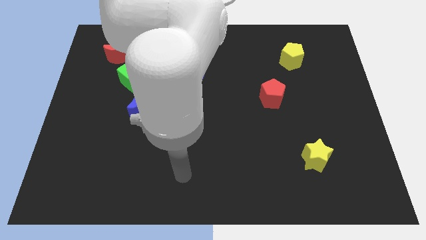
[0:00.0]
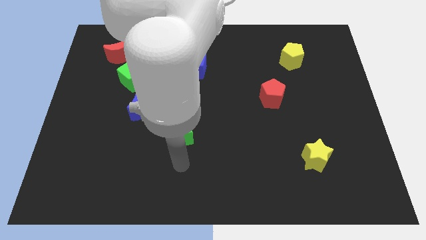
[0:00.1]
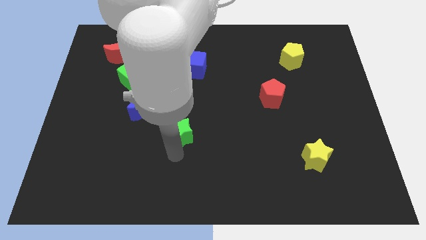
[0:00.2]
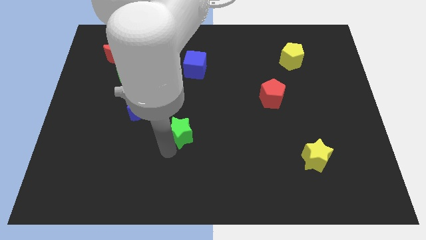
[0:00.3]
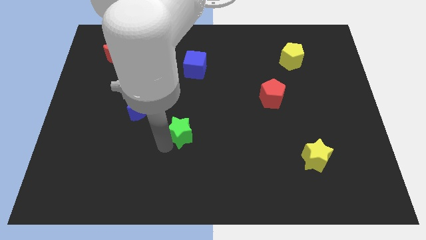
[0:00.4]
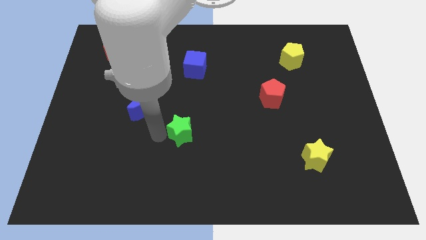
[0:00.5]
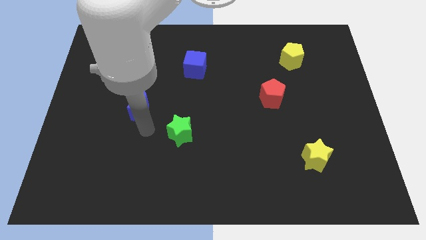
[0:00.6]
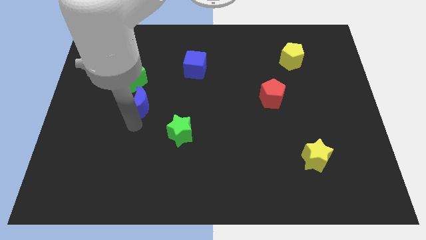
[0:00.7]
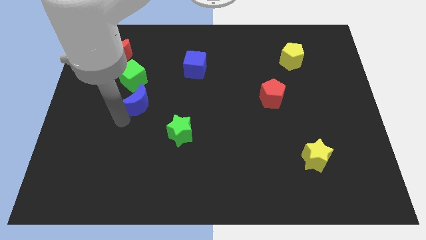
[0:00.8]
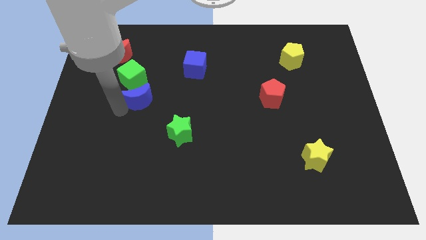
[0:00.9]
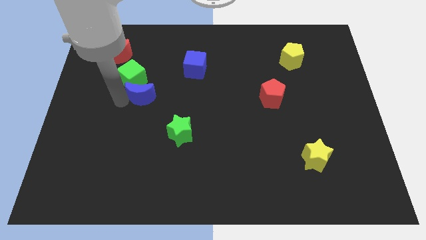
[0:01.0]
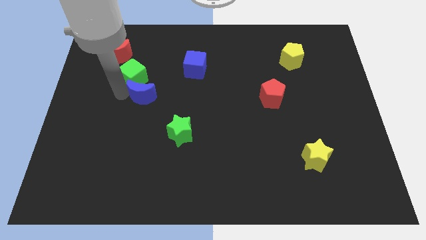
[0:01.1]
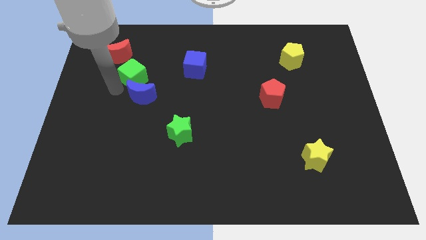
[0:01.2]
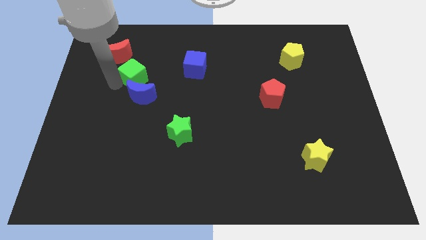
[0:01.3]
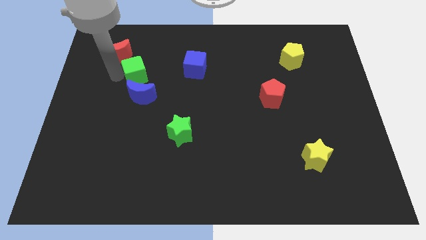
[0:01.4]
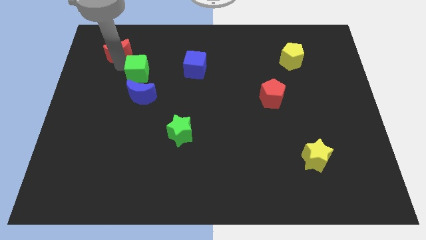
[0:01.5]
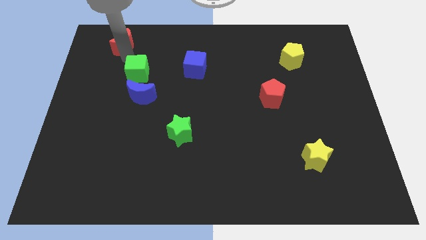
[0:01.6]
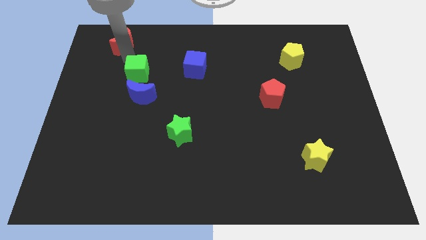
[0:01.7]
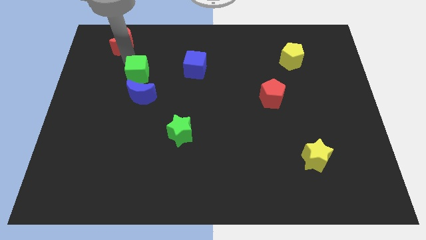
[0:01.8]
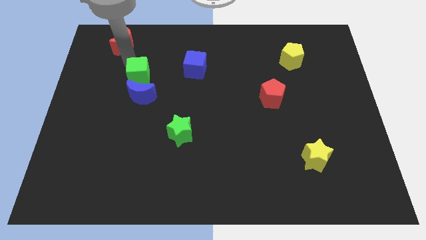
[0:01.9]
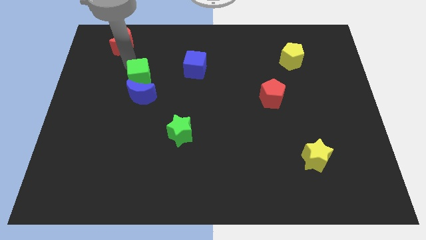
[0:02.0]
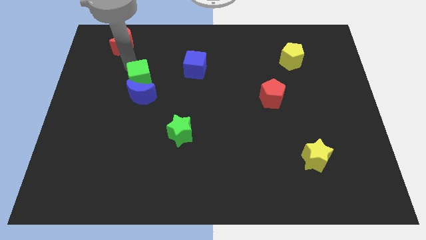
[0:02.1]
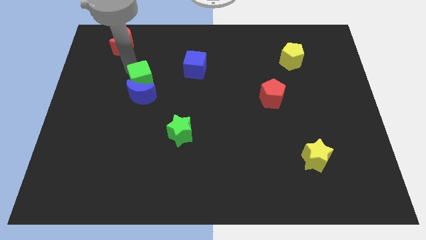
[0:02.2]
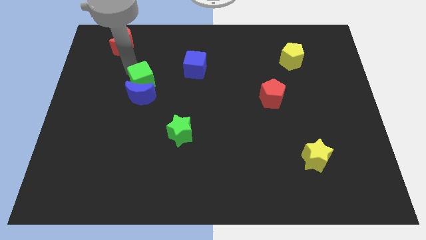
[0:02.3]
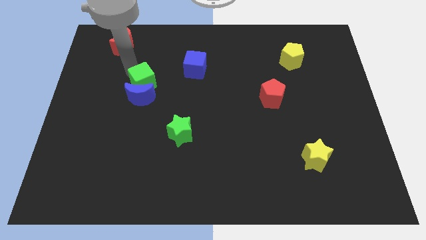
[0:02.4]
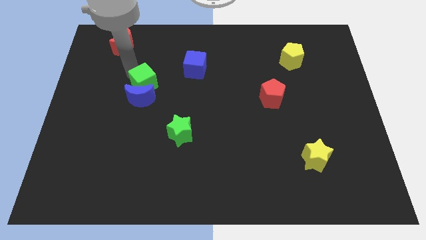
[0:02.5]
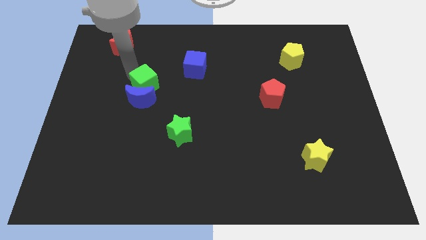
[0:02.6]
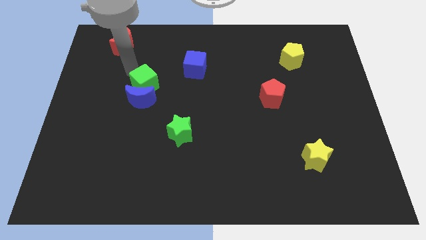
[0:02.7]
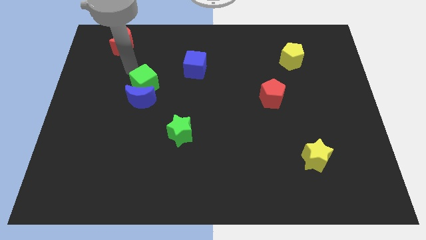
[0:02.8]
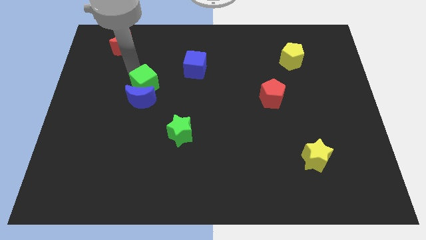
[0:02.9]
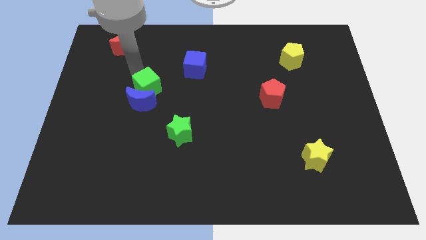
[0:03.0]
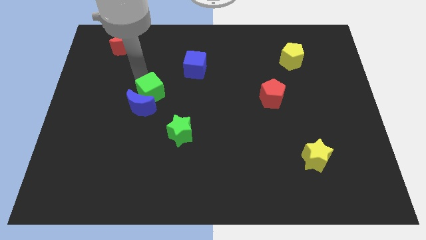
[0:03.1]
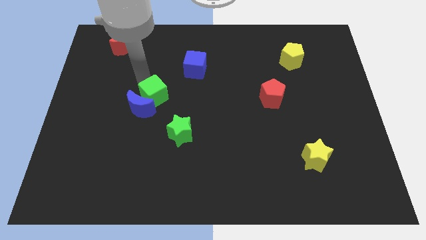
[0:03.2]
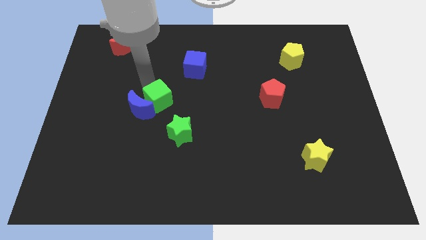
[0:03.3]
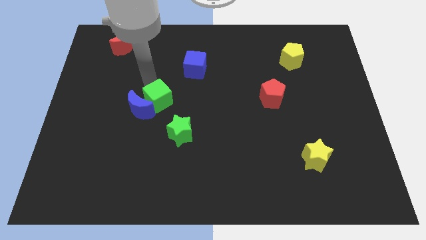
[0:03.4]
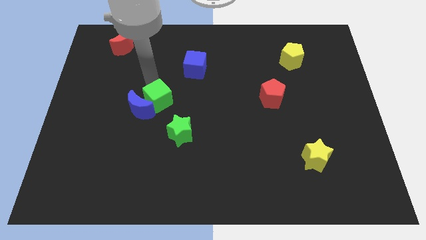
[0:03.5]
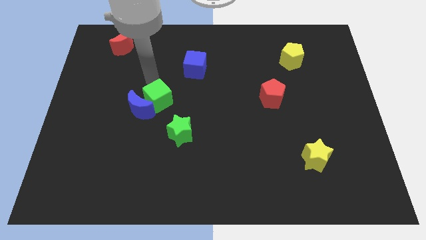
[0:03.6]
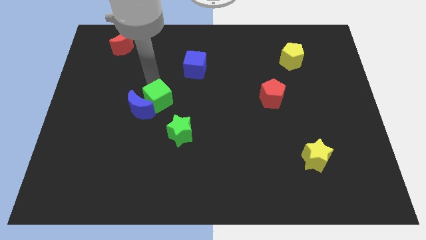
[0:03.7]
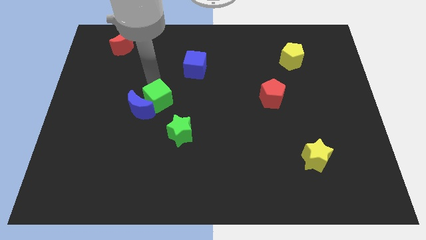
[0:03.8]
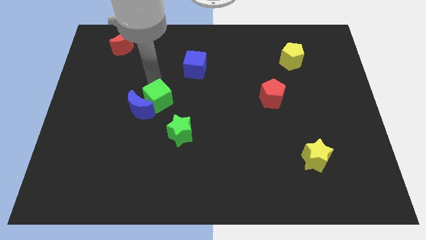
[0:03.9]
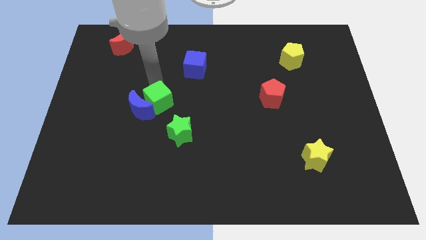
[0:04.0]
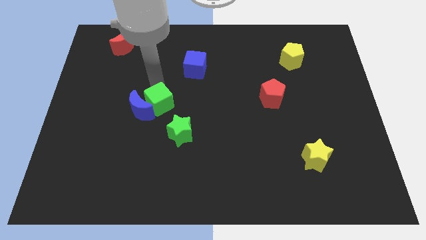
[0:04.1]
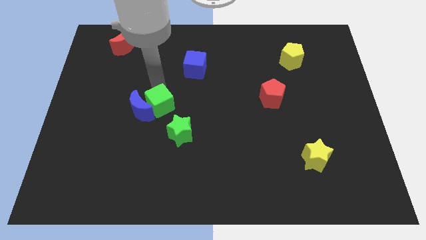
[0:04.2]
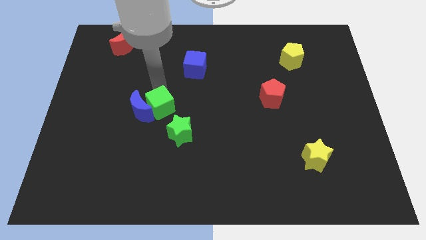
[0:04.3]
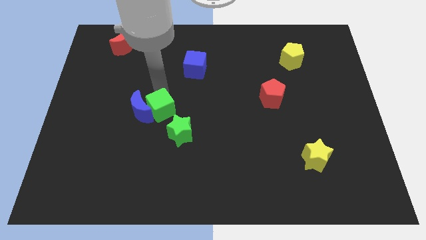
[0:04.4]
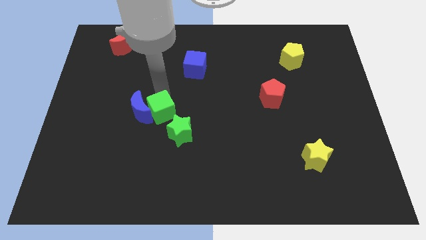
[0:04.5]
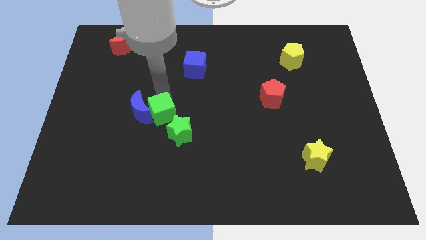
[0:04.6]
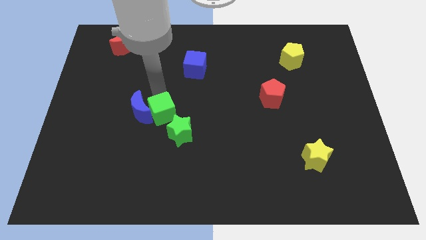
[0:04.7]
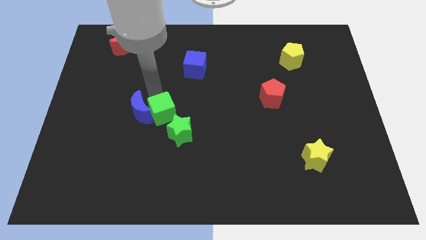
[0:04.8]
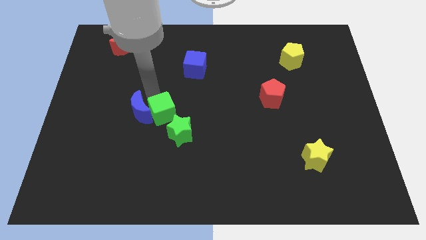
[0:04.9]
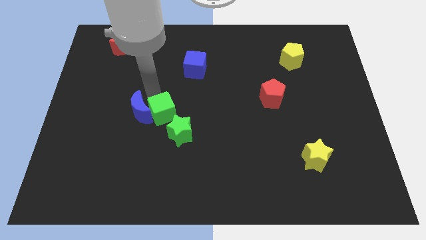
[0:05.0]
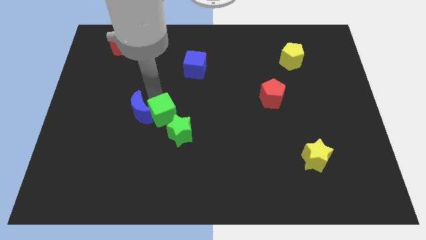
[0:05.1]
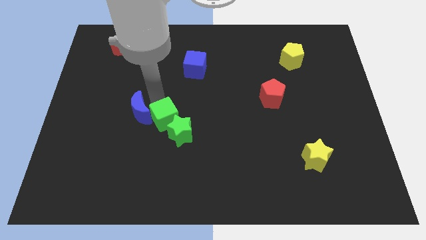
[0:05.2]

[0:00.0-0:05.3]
move the green cube close to the green star

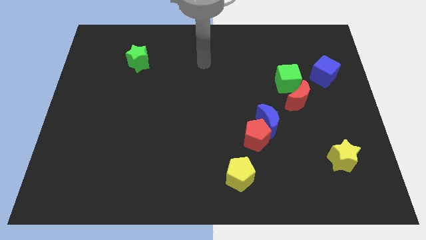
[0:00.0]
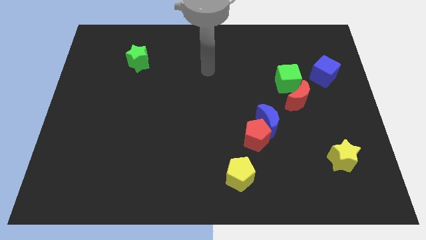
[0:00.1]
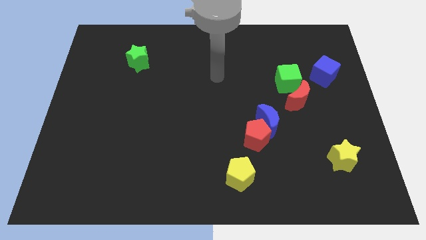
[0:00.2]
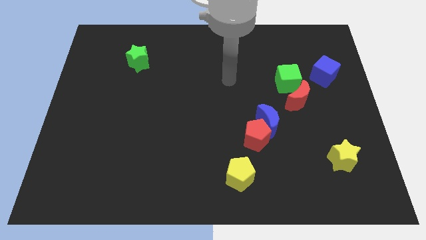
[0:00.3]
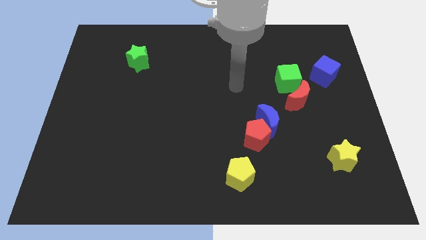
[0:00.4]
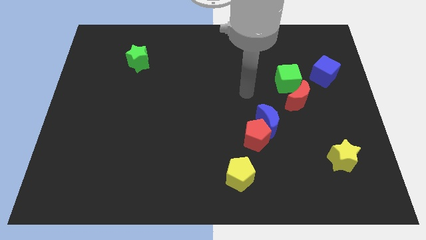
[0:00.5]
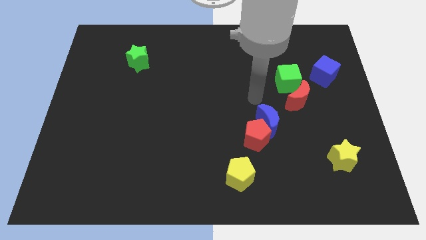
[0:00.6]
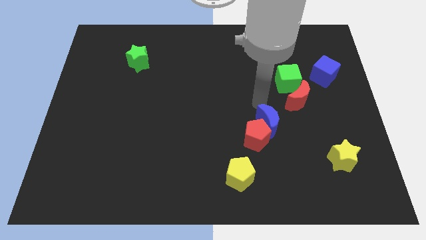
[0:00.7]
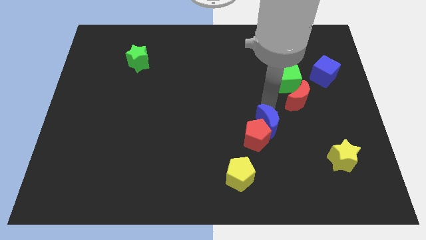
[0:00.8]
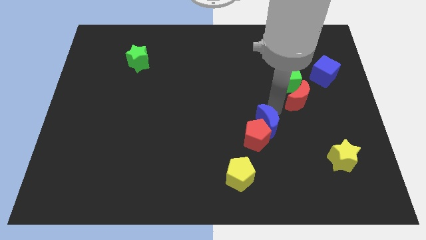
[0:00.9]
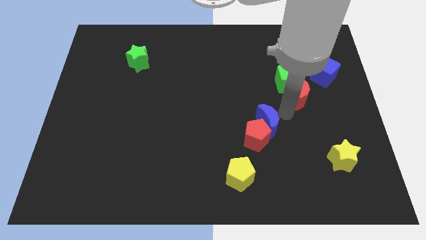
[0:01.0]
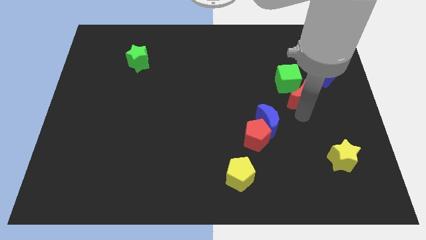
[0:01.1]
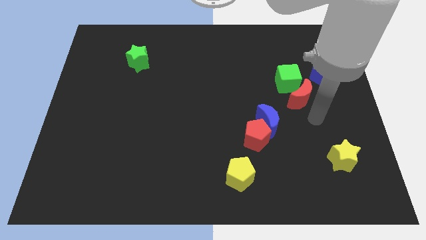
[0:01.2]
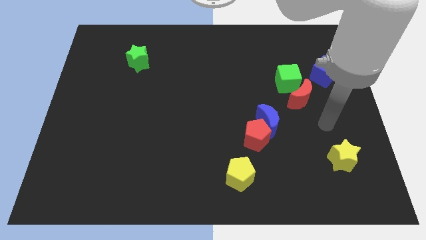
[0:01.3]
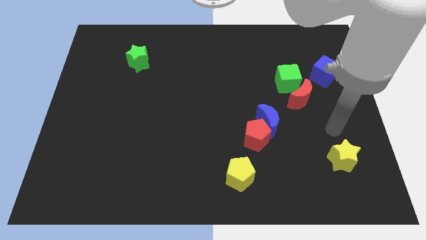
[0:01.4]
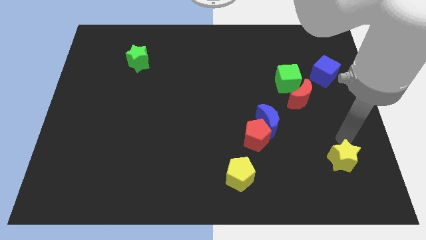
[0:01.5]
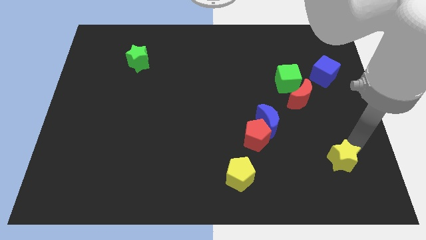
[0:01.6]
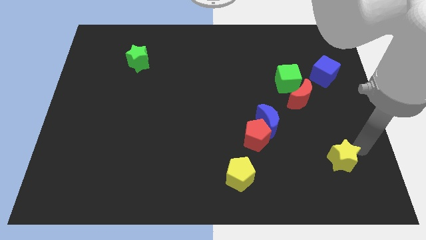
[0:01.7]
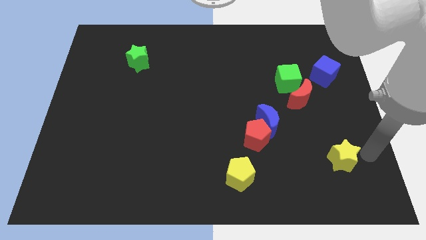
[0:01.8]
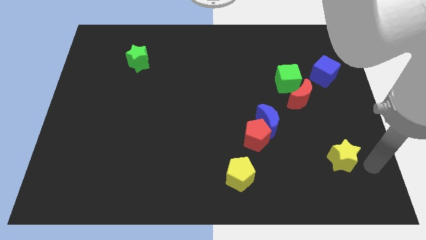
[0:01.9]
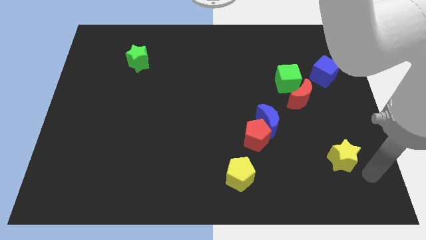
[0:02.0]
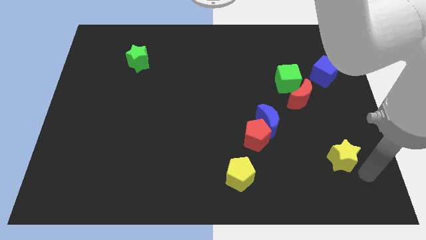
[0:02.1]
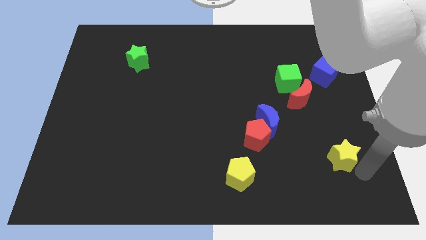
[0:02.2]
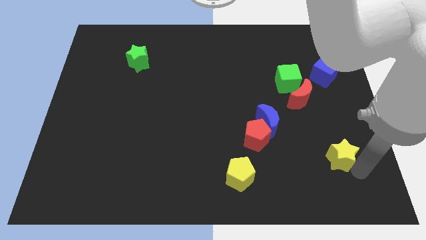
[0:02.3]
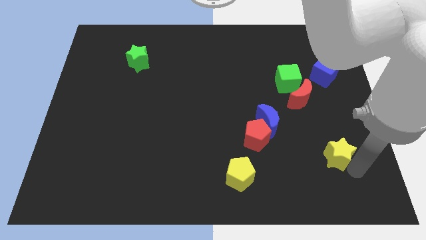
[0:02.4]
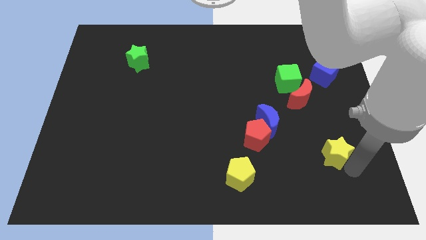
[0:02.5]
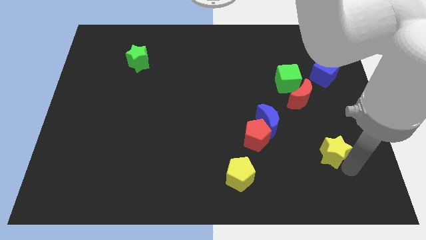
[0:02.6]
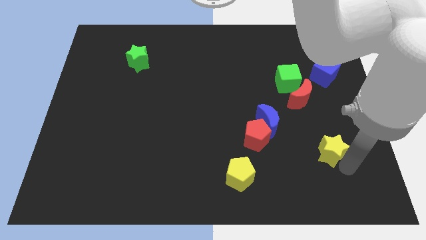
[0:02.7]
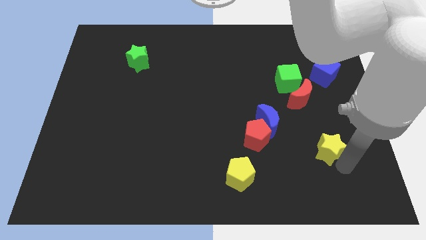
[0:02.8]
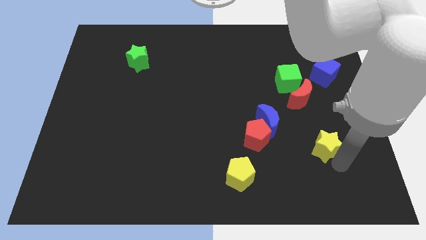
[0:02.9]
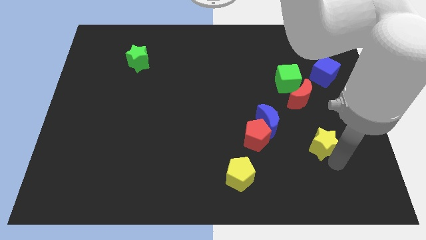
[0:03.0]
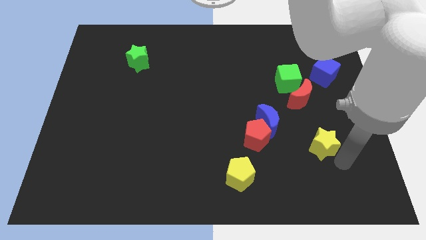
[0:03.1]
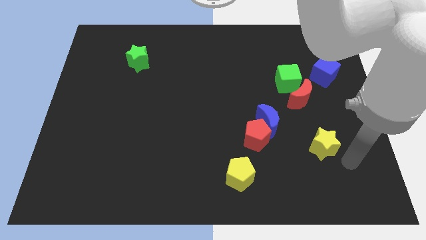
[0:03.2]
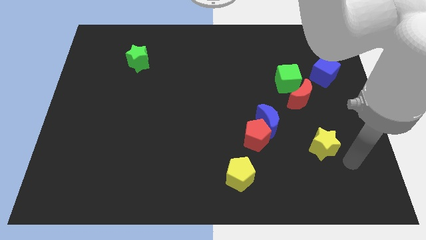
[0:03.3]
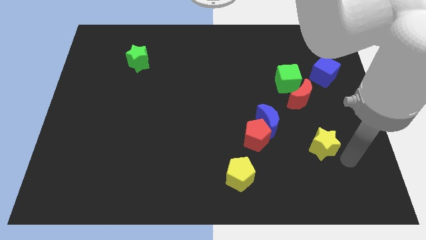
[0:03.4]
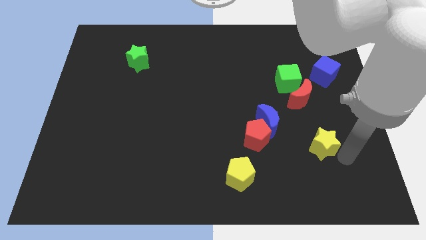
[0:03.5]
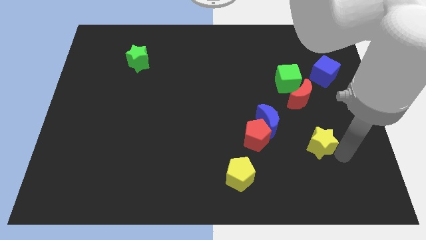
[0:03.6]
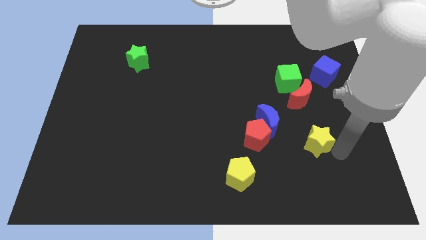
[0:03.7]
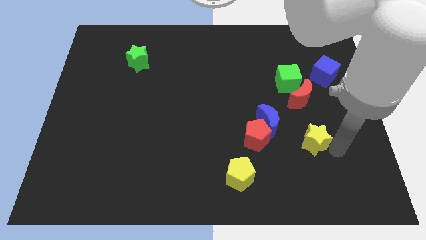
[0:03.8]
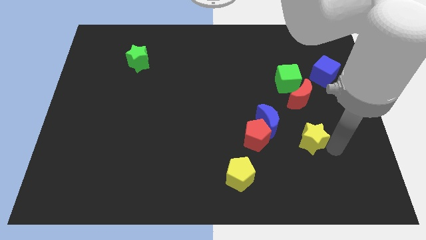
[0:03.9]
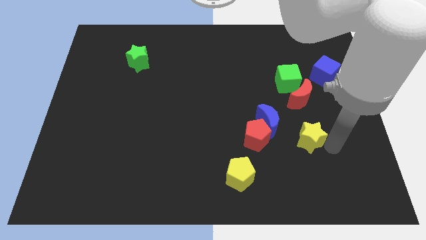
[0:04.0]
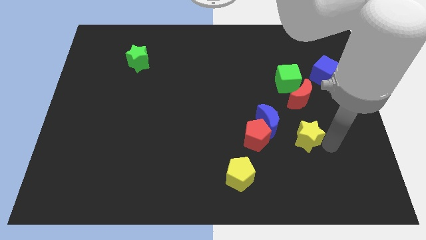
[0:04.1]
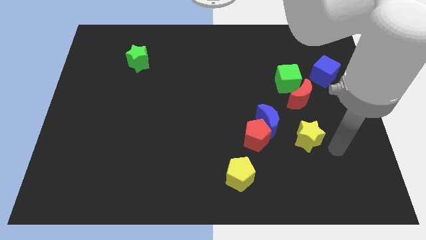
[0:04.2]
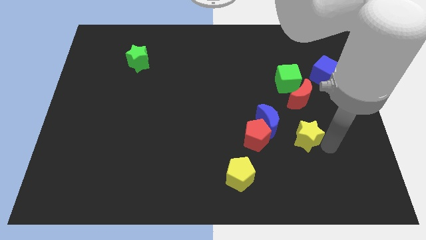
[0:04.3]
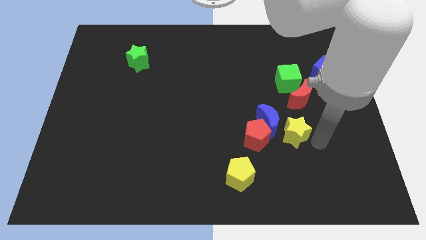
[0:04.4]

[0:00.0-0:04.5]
move the yellow star to the blue moon
